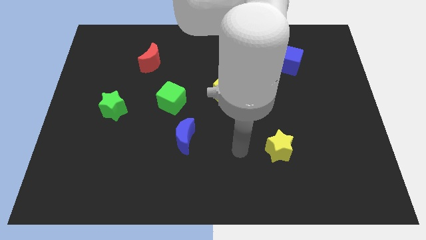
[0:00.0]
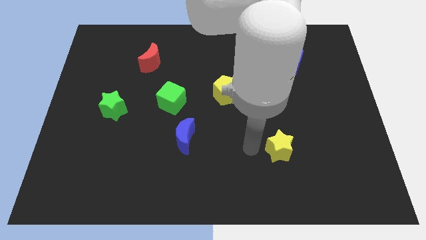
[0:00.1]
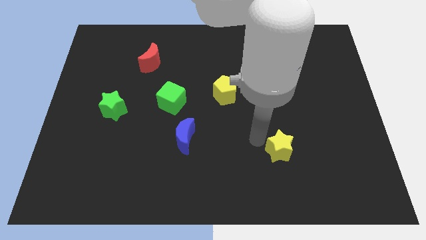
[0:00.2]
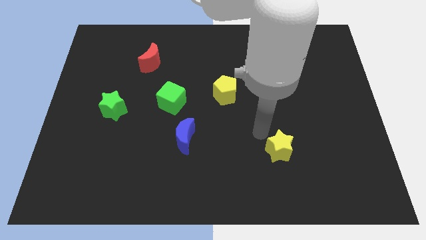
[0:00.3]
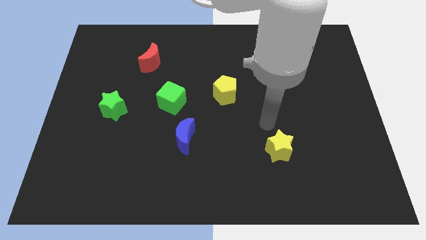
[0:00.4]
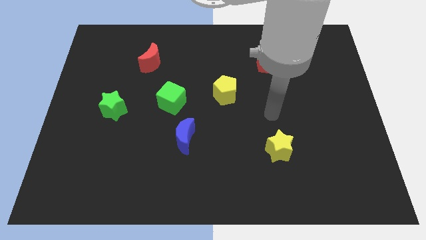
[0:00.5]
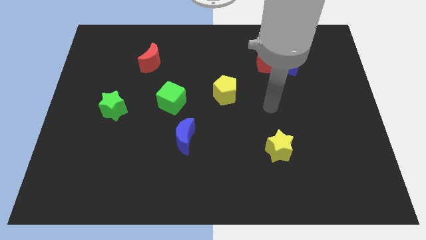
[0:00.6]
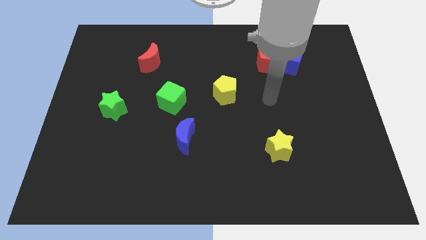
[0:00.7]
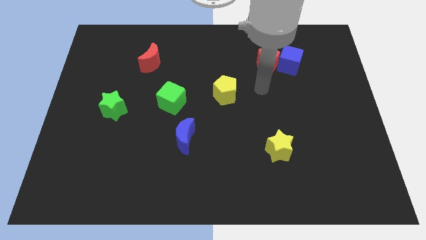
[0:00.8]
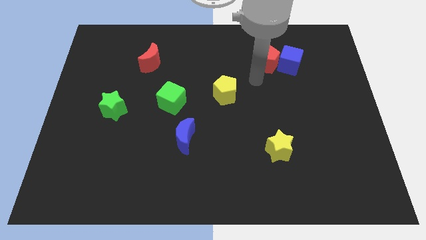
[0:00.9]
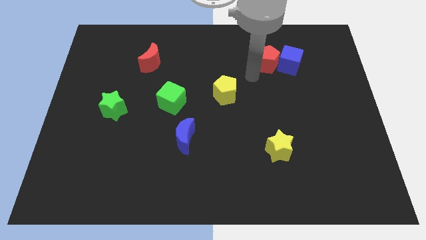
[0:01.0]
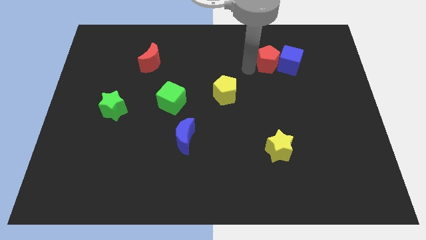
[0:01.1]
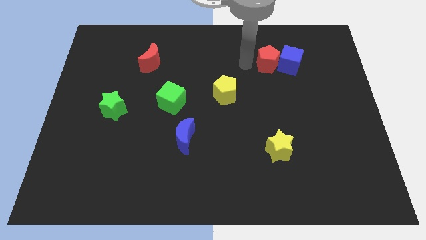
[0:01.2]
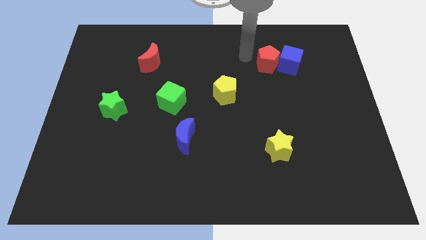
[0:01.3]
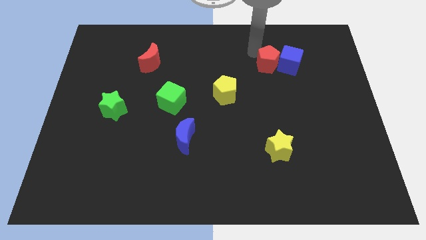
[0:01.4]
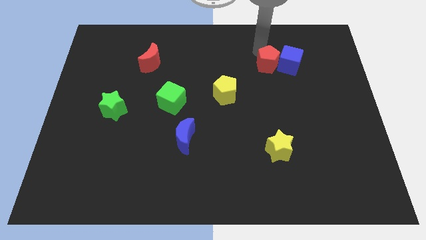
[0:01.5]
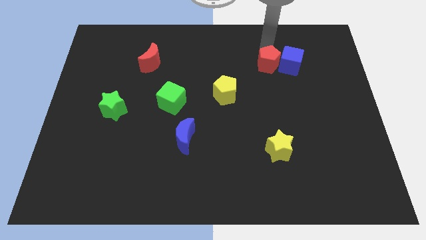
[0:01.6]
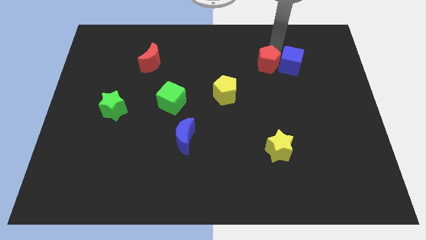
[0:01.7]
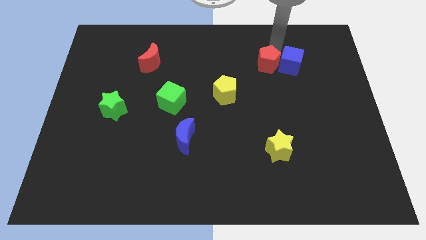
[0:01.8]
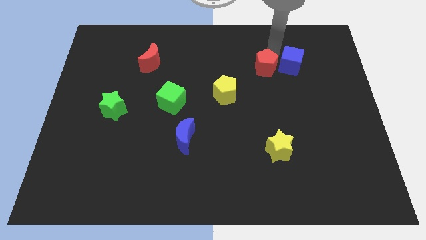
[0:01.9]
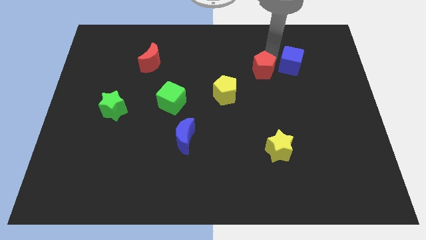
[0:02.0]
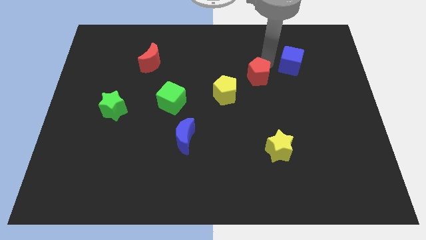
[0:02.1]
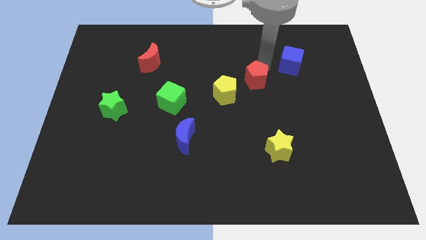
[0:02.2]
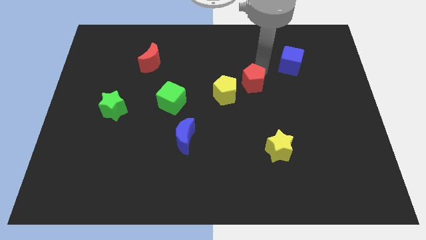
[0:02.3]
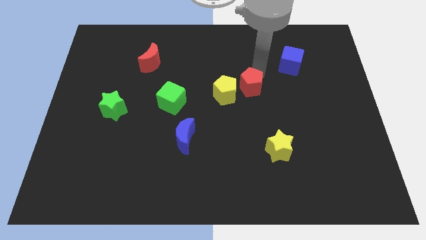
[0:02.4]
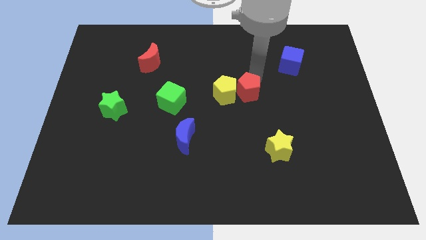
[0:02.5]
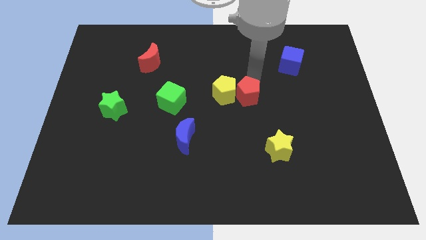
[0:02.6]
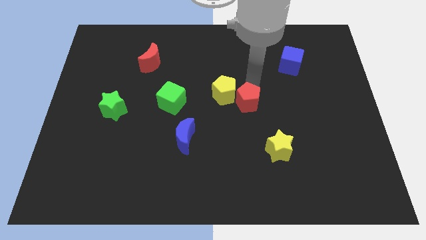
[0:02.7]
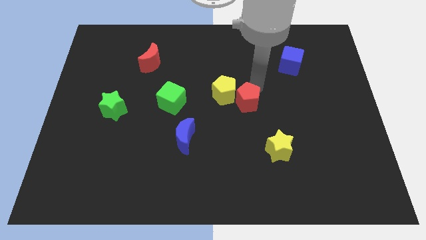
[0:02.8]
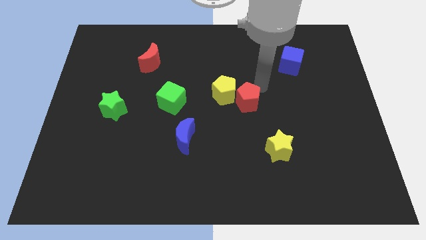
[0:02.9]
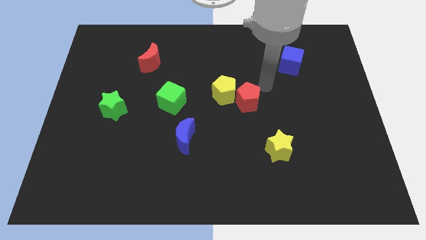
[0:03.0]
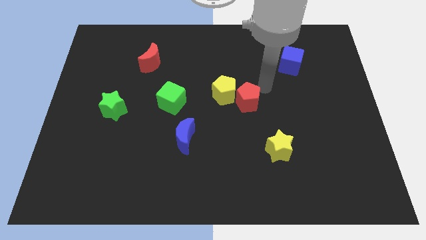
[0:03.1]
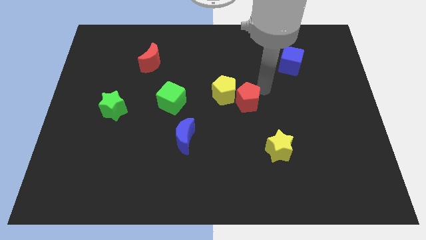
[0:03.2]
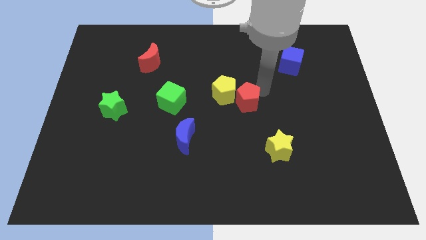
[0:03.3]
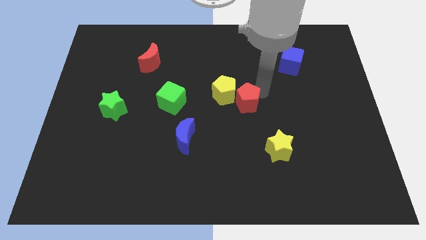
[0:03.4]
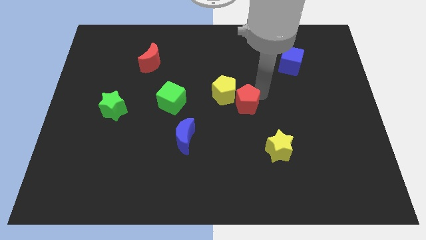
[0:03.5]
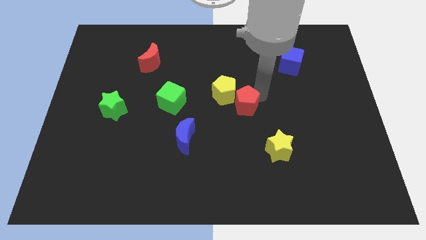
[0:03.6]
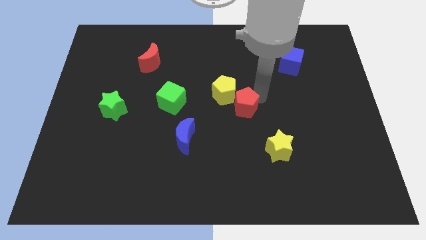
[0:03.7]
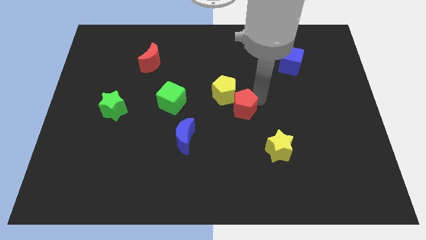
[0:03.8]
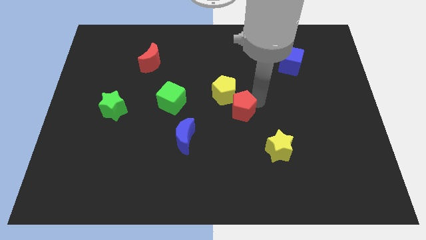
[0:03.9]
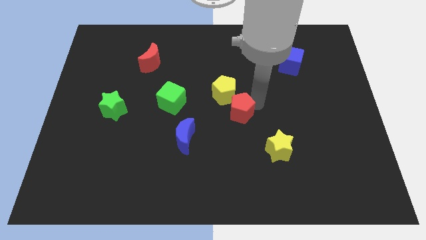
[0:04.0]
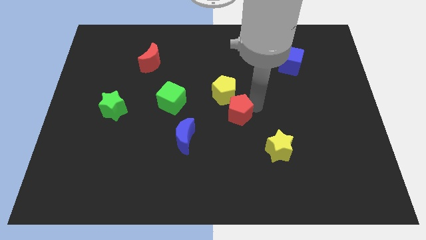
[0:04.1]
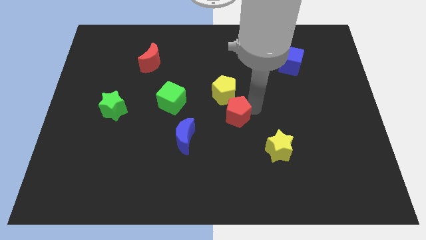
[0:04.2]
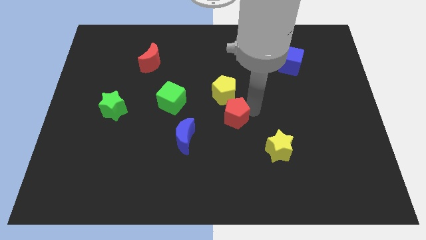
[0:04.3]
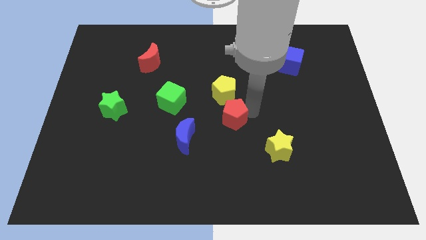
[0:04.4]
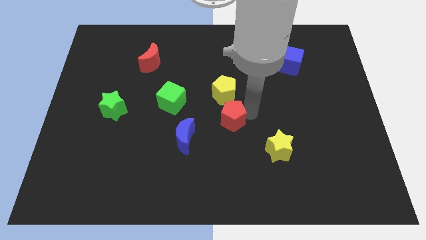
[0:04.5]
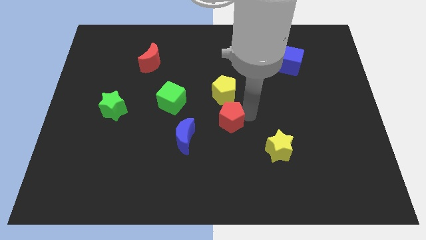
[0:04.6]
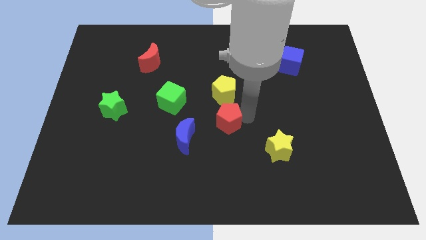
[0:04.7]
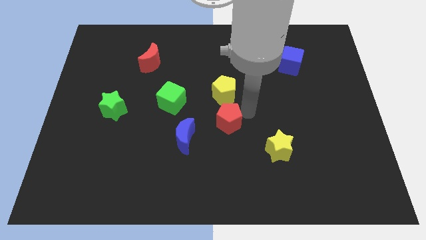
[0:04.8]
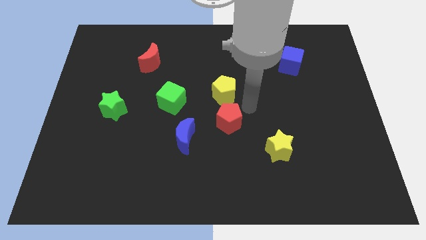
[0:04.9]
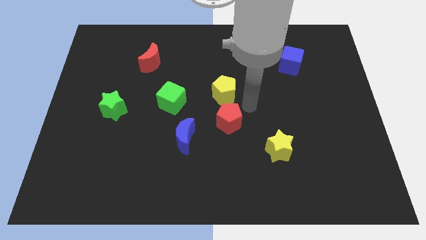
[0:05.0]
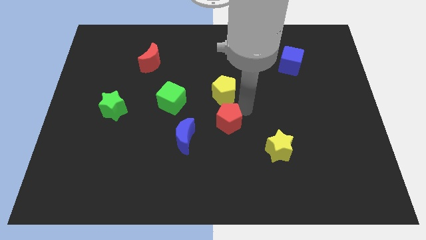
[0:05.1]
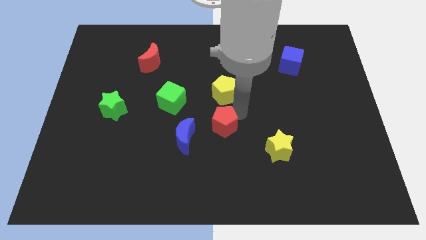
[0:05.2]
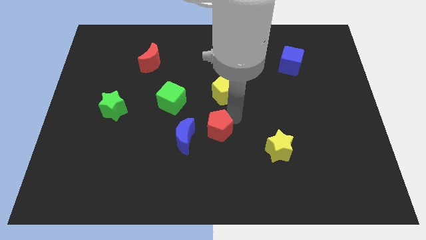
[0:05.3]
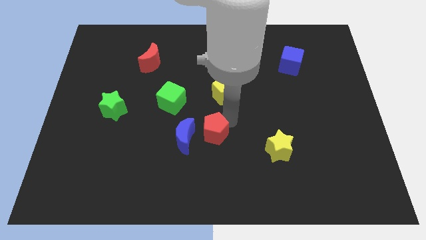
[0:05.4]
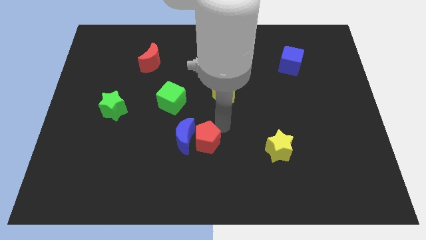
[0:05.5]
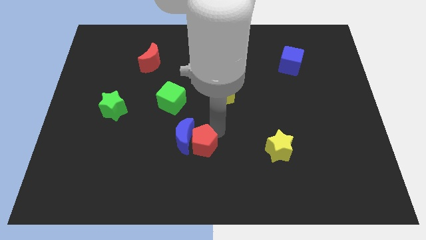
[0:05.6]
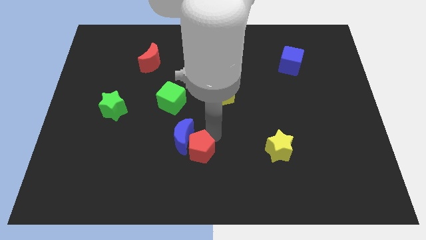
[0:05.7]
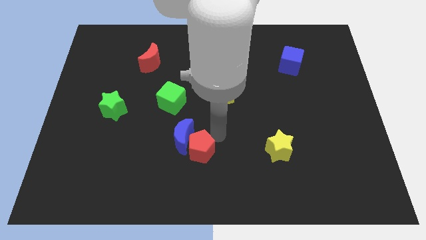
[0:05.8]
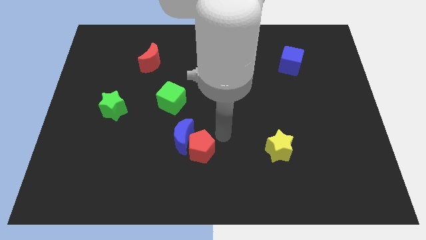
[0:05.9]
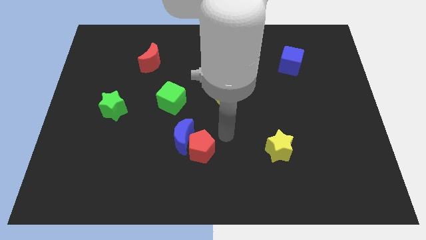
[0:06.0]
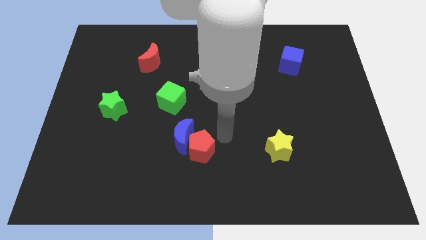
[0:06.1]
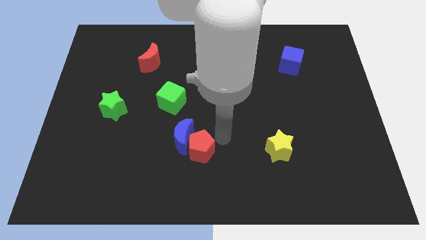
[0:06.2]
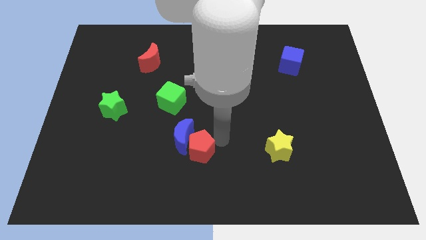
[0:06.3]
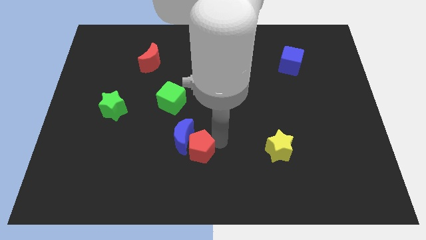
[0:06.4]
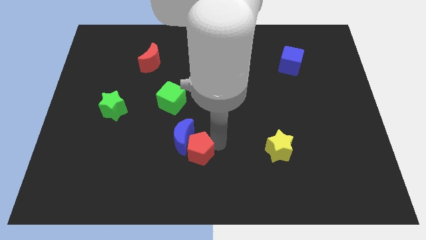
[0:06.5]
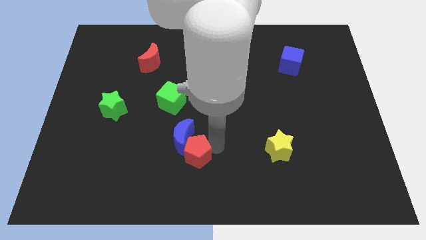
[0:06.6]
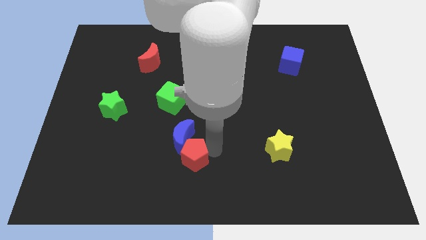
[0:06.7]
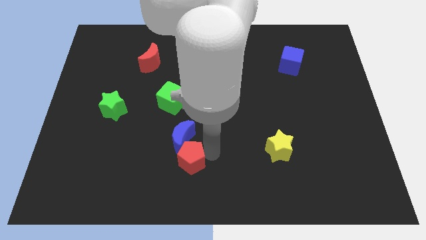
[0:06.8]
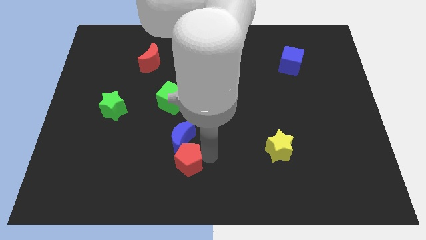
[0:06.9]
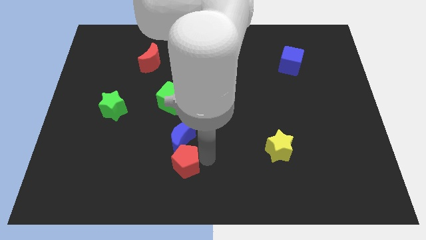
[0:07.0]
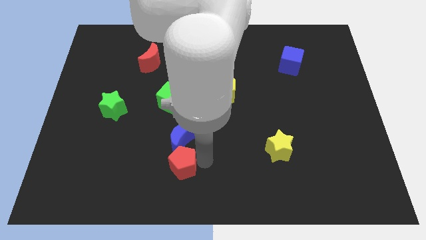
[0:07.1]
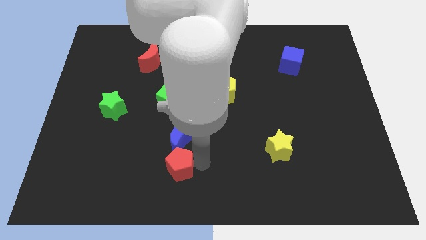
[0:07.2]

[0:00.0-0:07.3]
move the red pentagon to the bottom left side of the blue moon

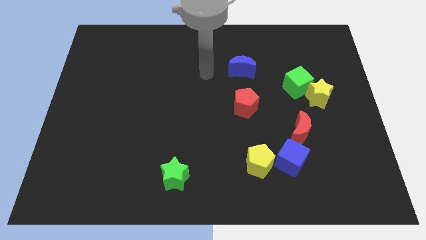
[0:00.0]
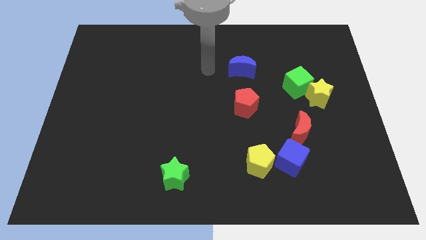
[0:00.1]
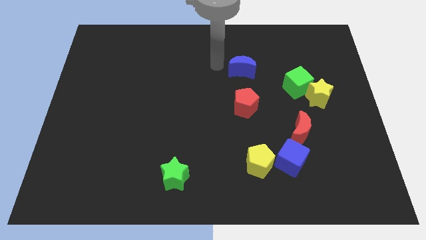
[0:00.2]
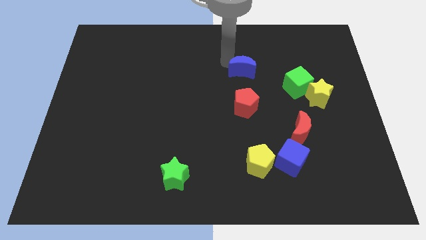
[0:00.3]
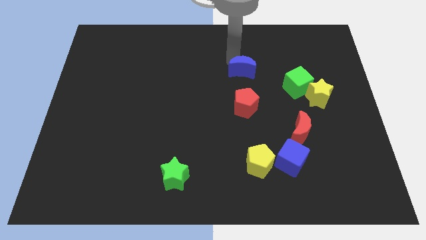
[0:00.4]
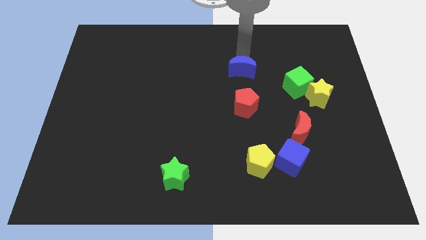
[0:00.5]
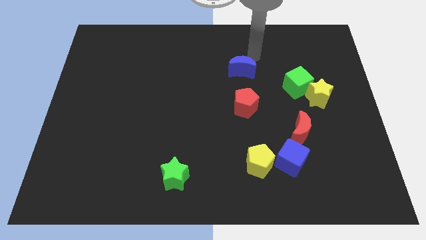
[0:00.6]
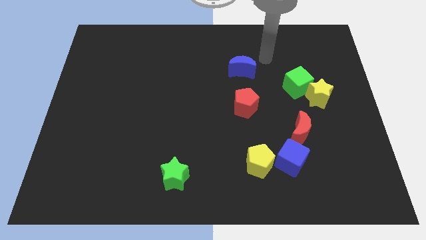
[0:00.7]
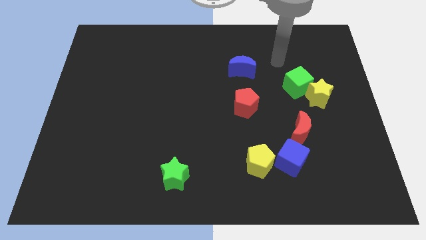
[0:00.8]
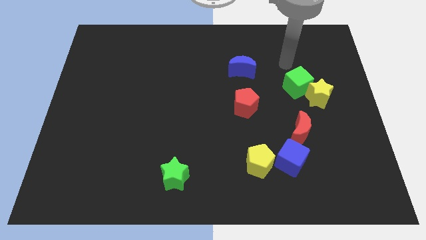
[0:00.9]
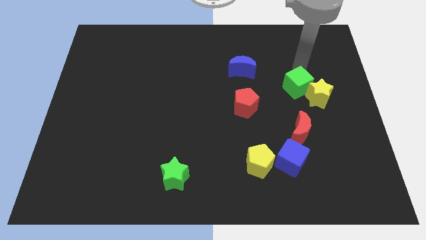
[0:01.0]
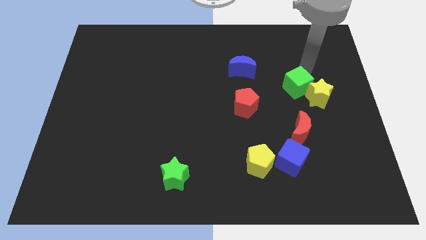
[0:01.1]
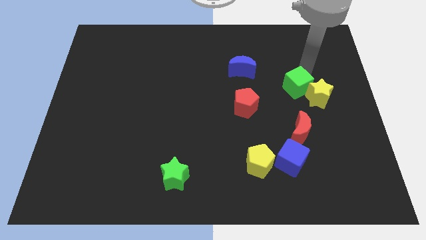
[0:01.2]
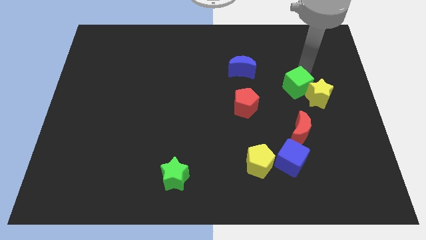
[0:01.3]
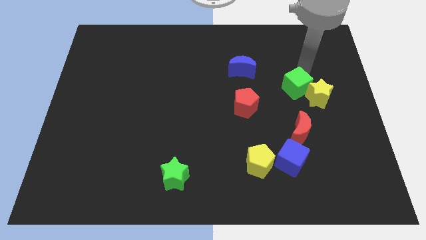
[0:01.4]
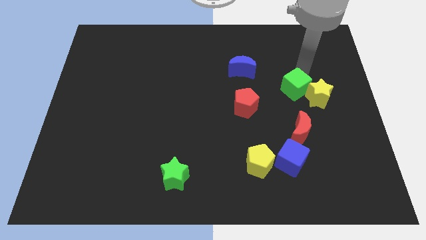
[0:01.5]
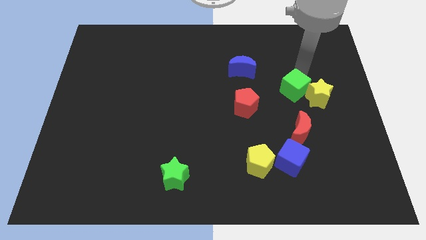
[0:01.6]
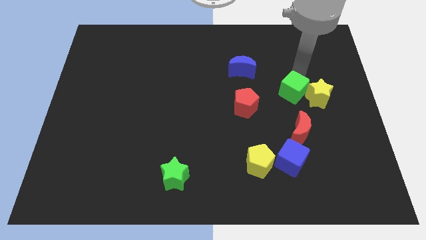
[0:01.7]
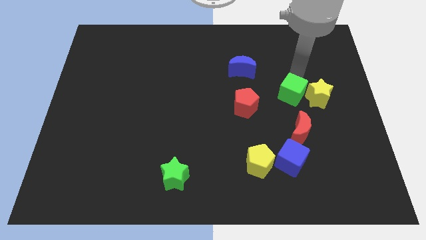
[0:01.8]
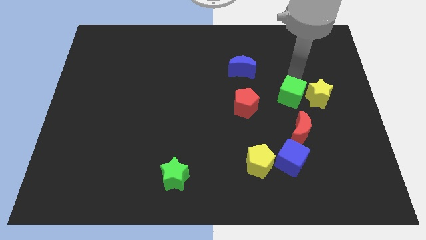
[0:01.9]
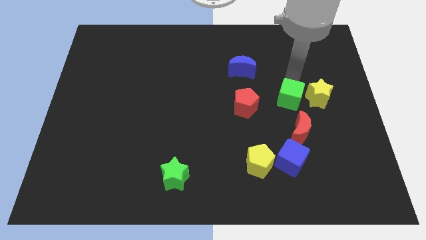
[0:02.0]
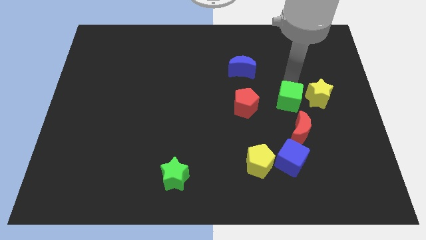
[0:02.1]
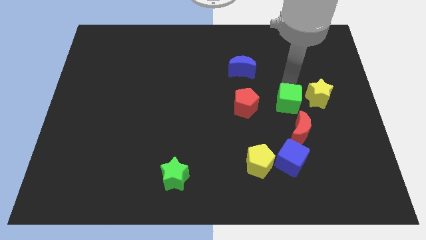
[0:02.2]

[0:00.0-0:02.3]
push the green cube above the blue cube
